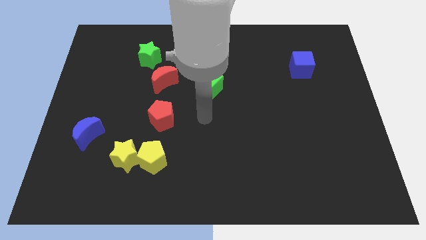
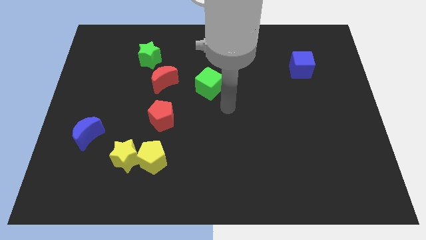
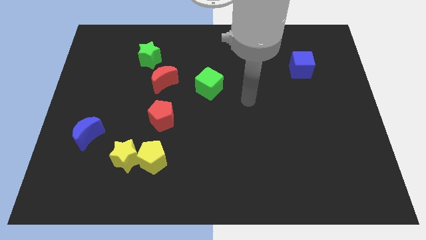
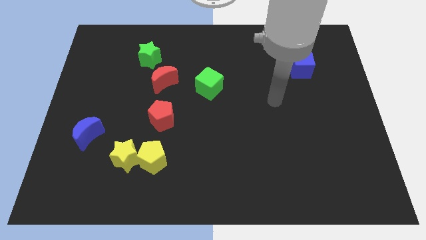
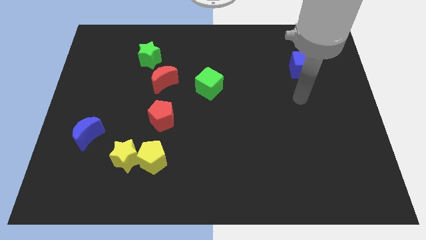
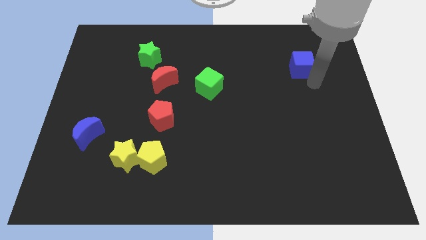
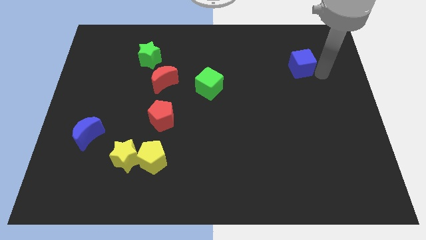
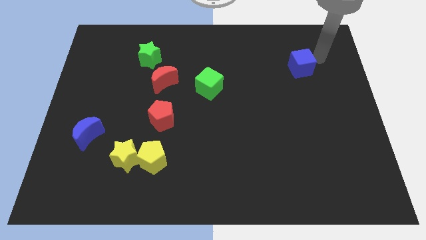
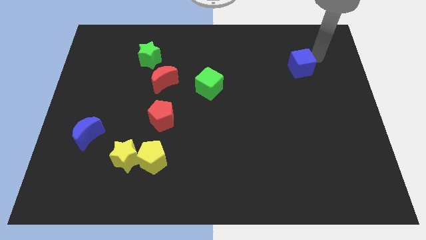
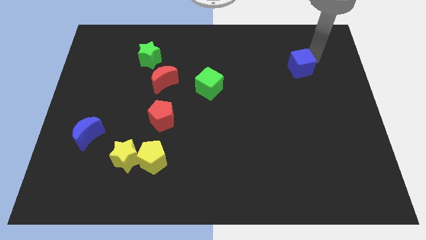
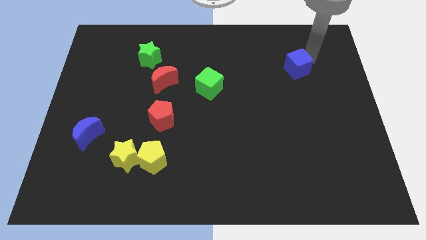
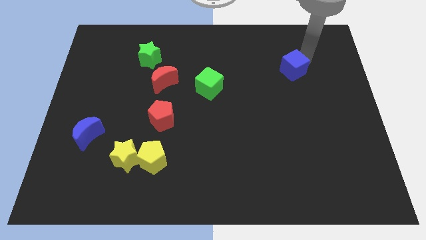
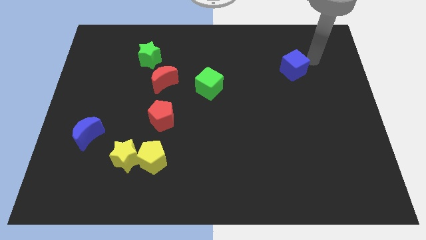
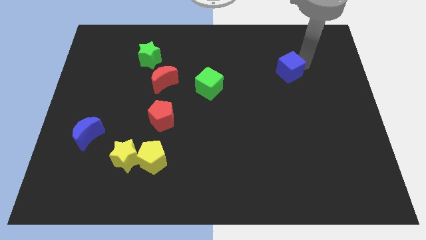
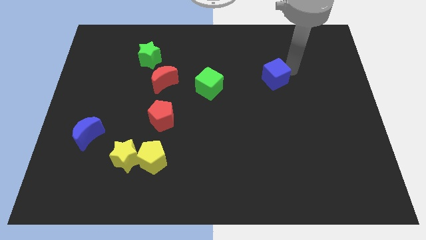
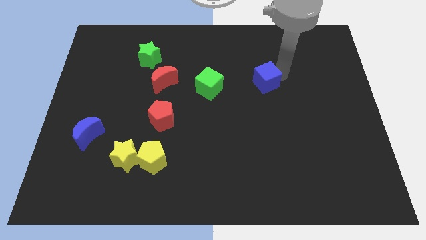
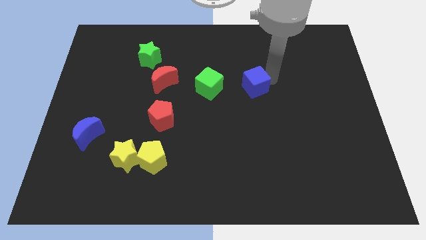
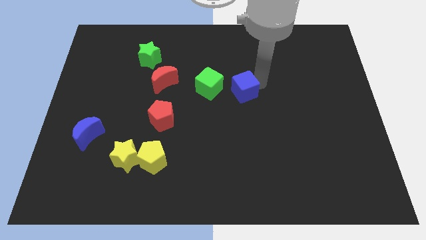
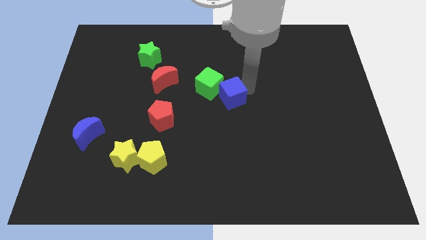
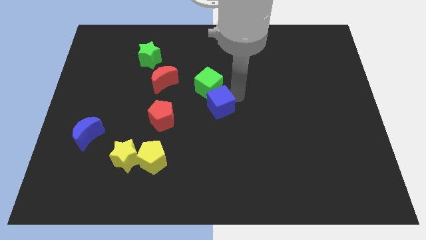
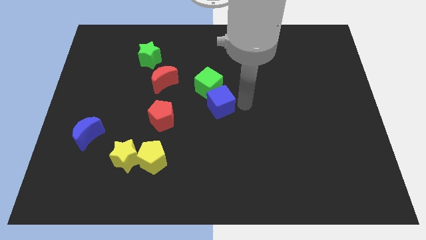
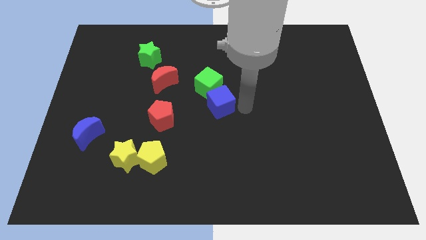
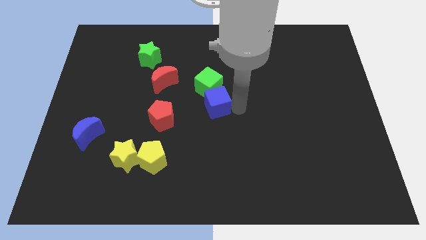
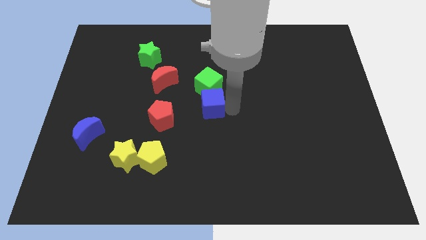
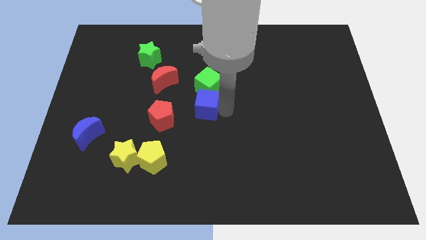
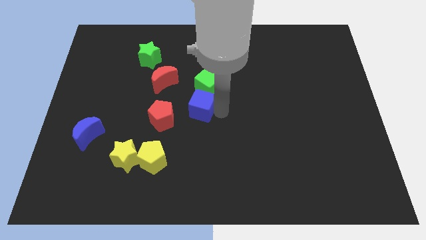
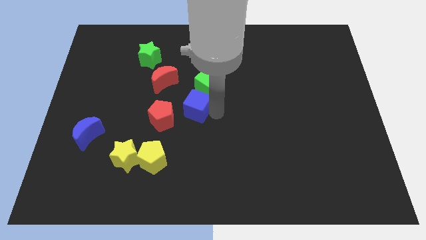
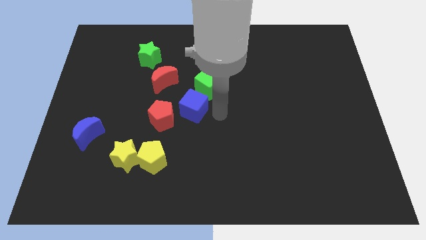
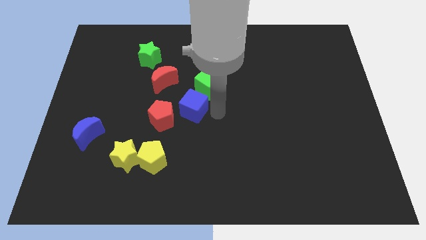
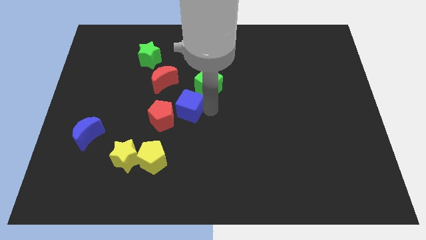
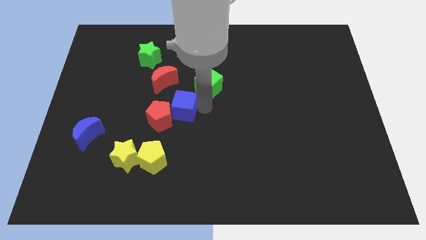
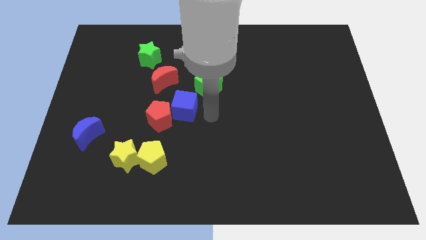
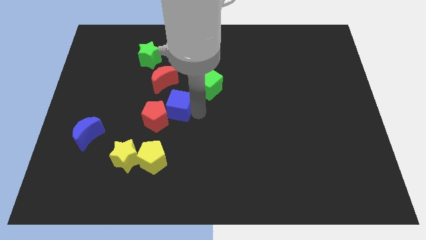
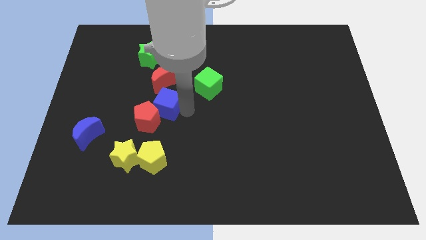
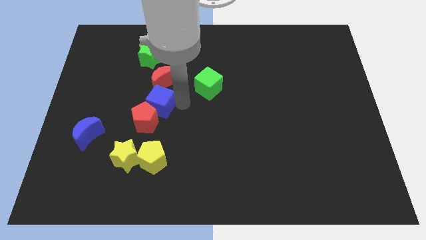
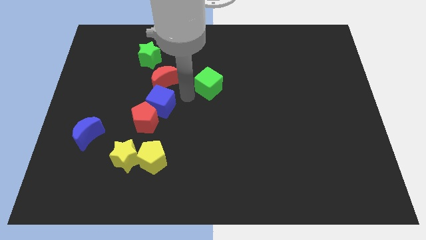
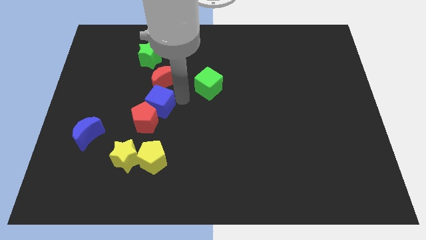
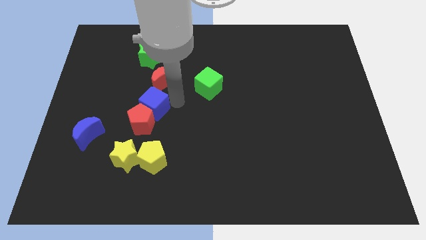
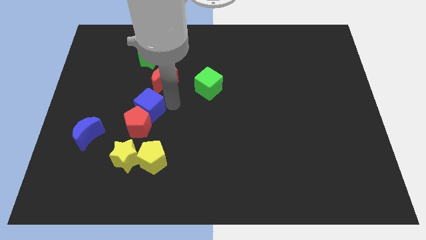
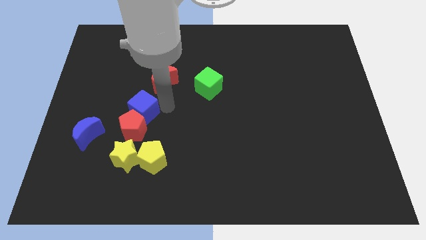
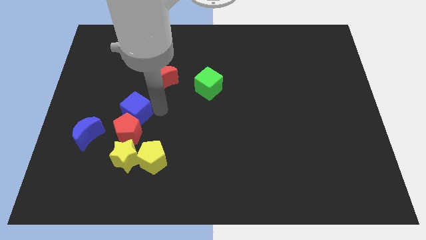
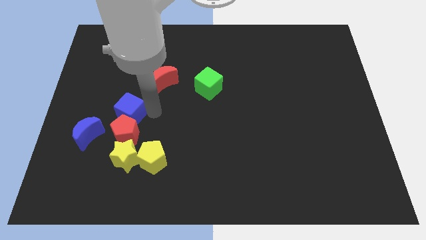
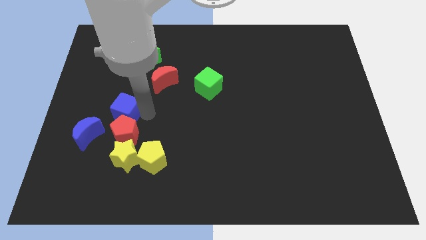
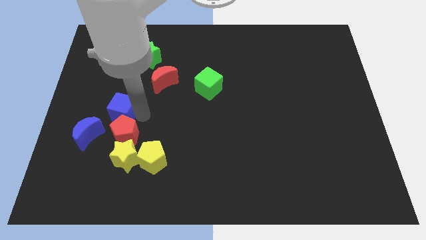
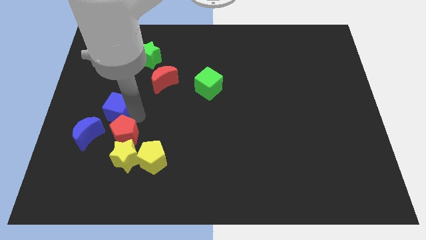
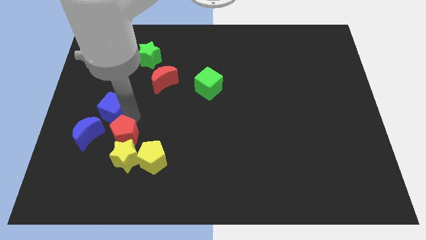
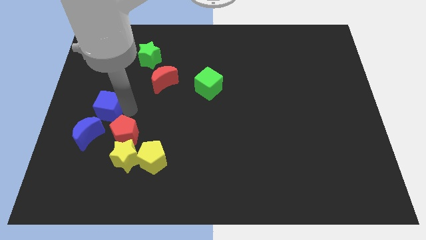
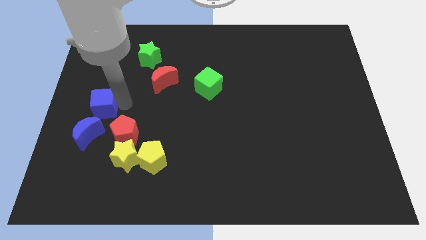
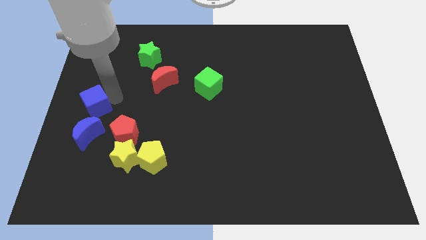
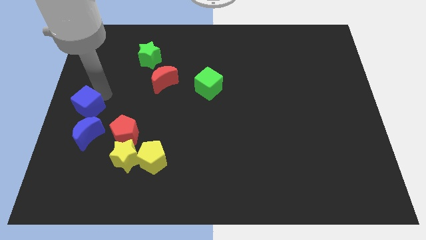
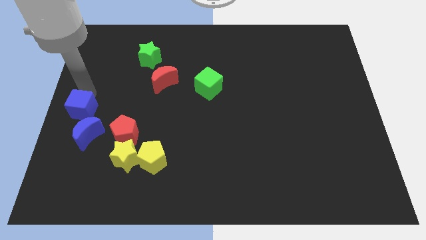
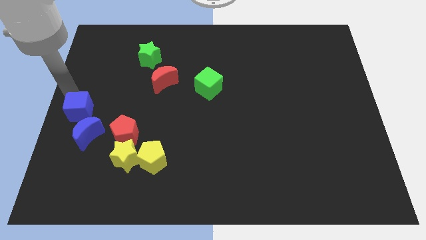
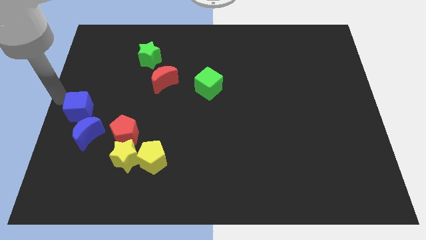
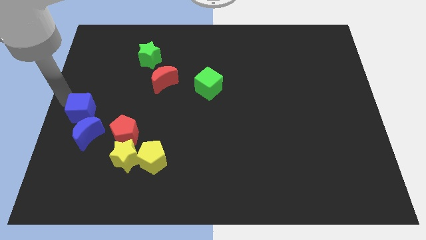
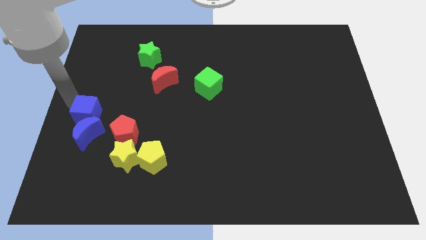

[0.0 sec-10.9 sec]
slide the blue cube to the blue moon
